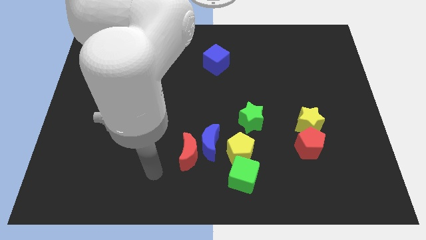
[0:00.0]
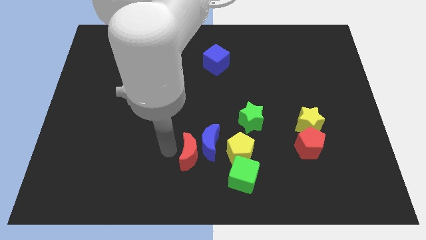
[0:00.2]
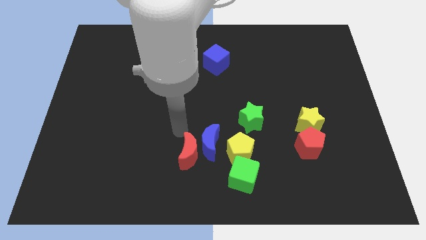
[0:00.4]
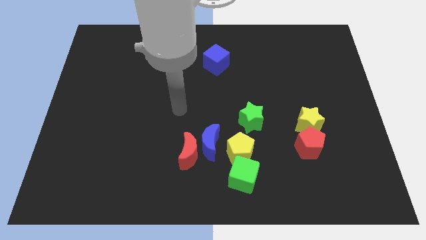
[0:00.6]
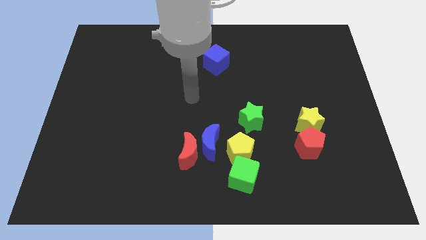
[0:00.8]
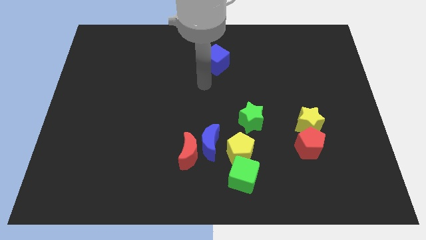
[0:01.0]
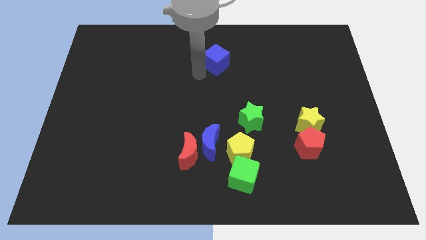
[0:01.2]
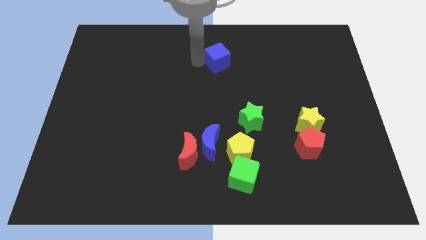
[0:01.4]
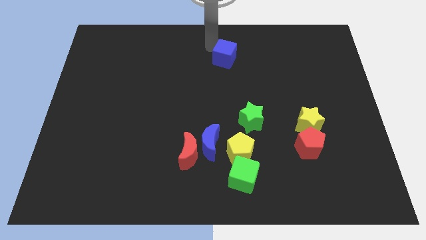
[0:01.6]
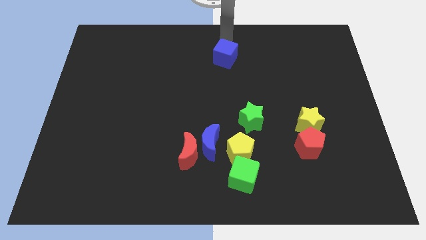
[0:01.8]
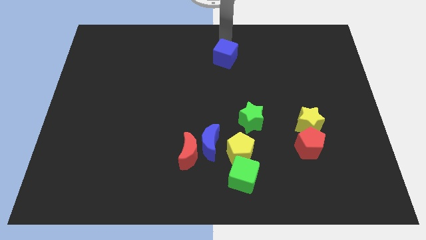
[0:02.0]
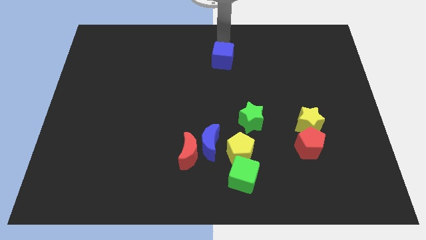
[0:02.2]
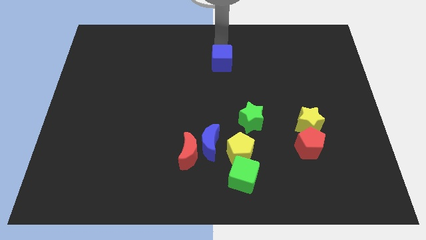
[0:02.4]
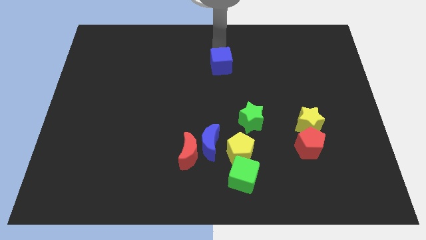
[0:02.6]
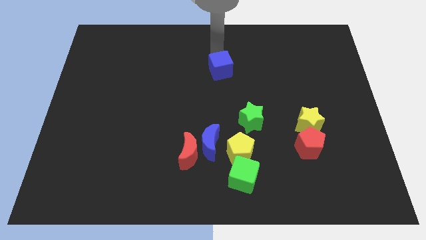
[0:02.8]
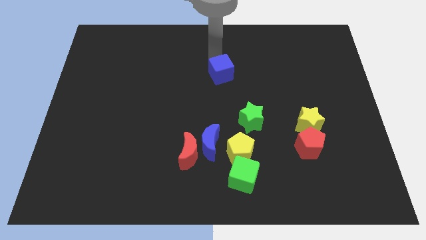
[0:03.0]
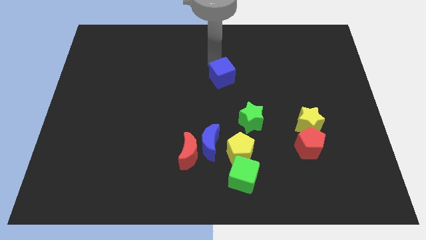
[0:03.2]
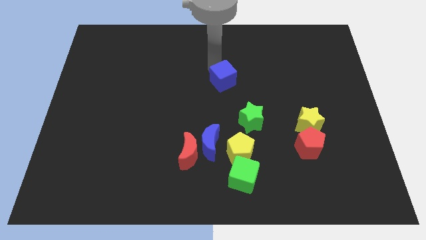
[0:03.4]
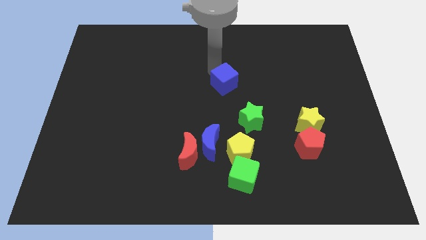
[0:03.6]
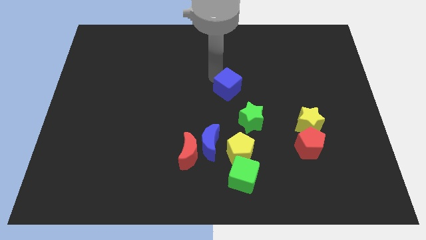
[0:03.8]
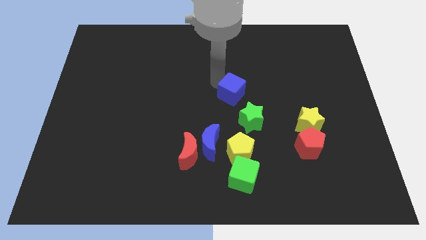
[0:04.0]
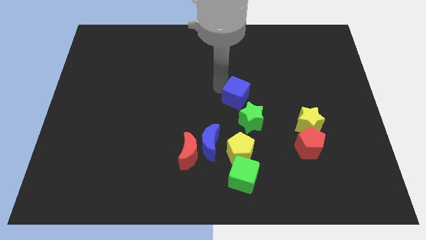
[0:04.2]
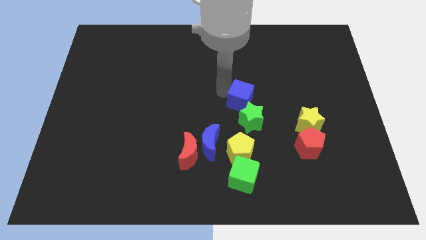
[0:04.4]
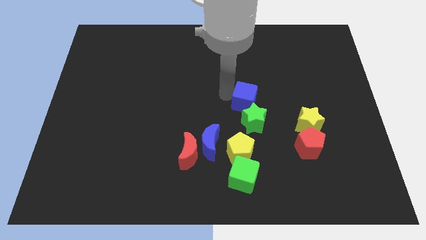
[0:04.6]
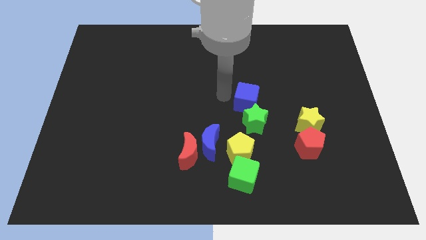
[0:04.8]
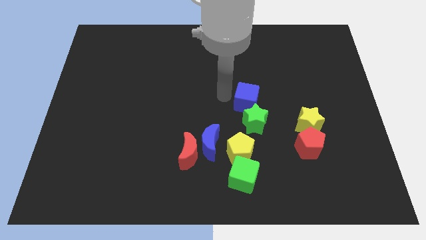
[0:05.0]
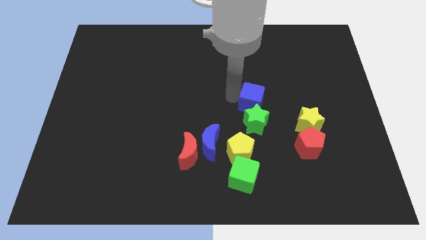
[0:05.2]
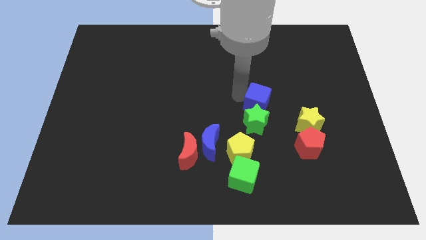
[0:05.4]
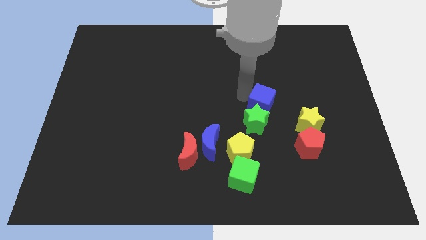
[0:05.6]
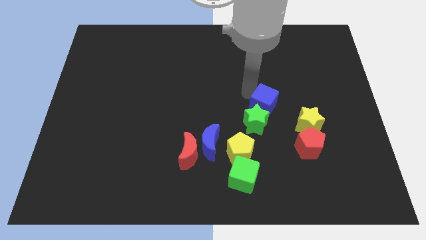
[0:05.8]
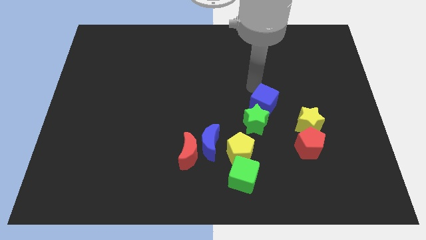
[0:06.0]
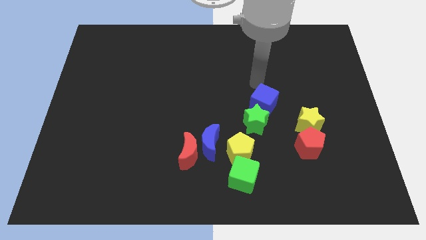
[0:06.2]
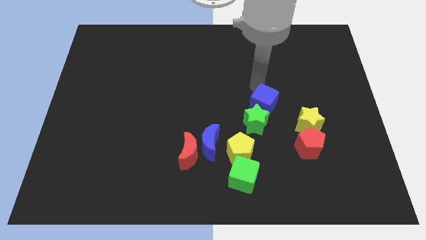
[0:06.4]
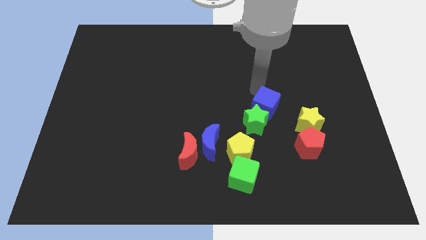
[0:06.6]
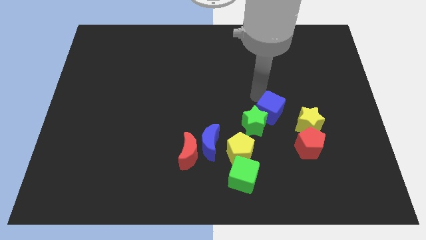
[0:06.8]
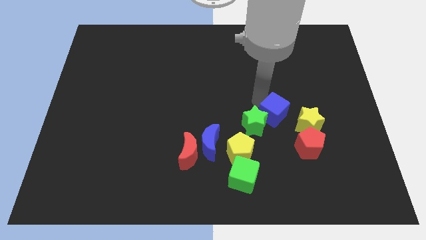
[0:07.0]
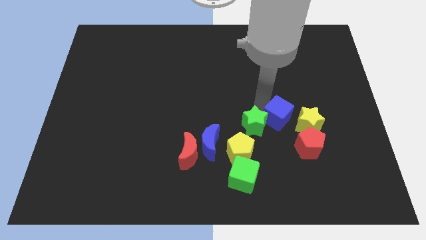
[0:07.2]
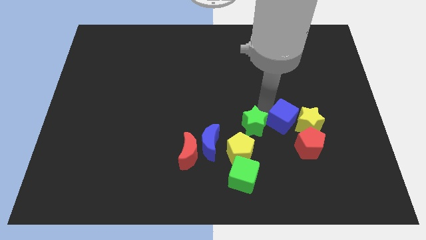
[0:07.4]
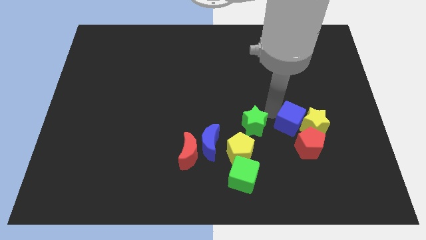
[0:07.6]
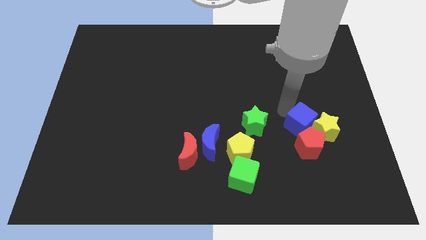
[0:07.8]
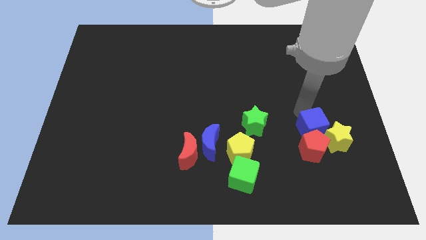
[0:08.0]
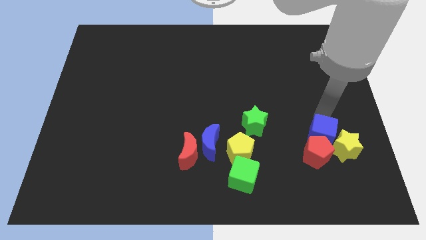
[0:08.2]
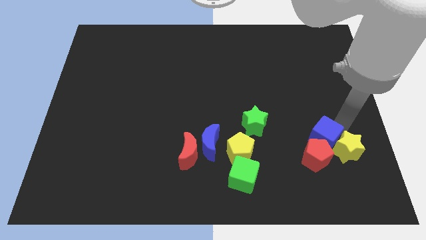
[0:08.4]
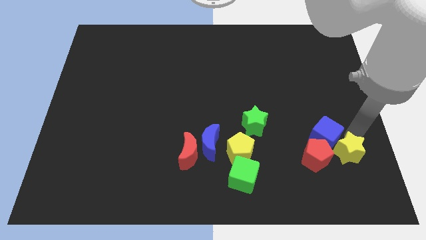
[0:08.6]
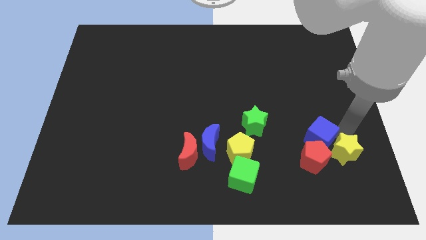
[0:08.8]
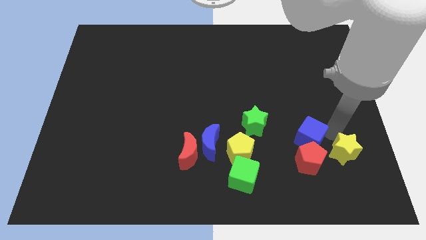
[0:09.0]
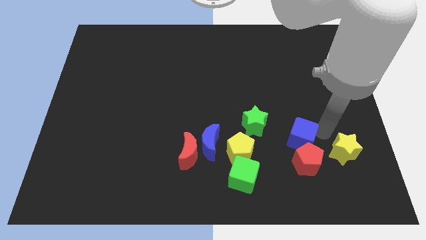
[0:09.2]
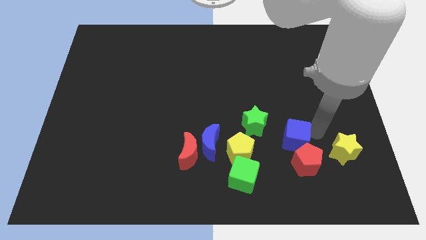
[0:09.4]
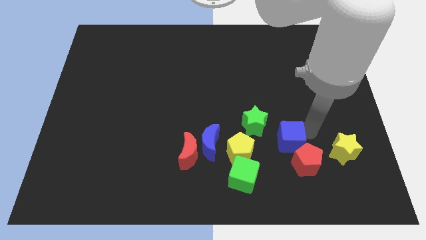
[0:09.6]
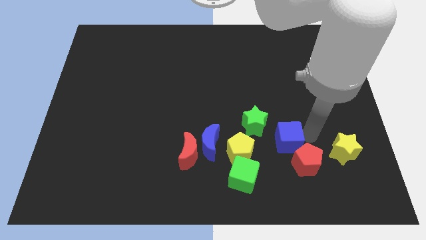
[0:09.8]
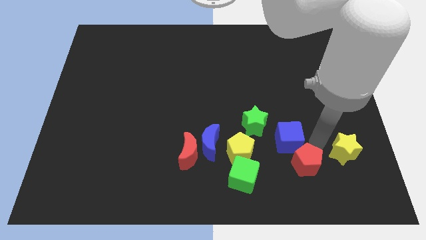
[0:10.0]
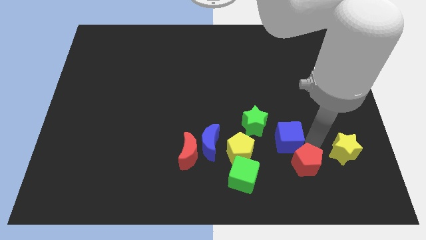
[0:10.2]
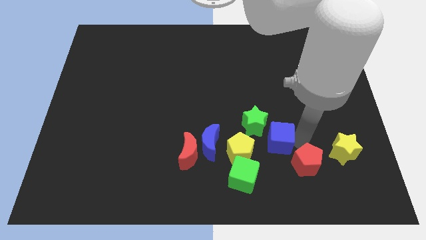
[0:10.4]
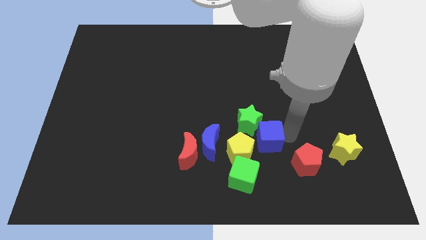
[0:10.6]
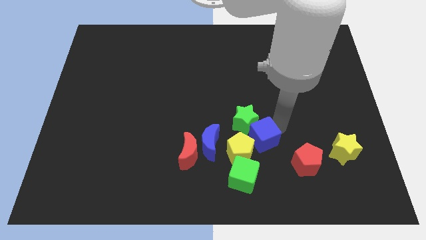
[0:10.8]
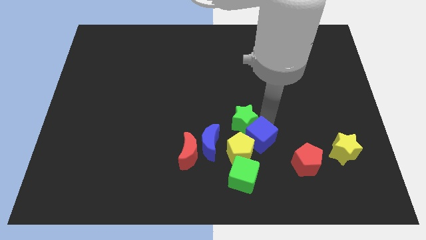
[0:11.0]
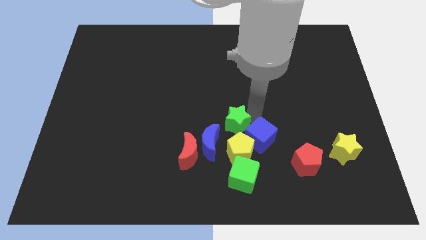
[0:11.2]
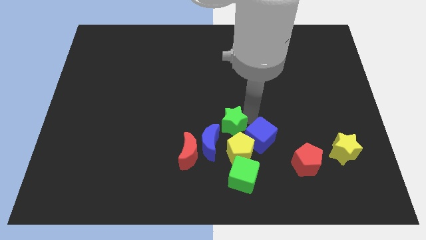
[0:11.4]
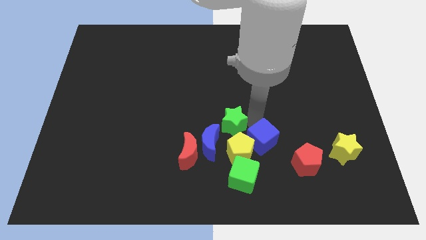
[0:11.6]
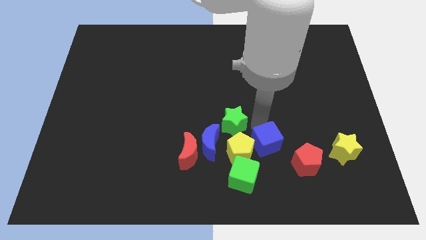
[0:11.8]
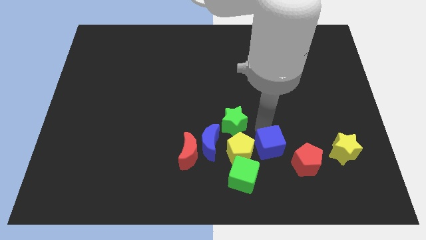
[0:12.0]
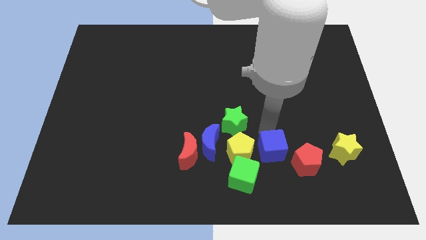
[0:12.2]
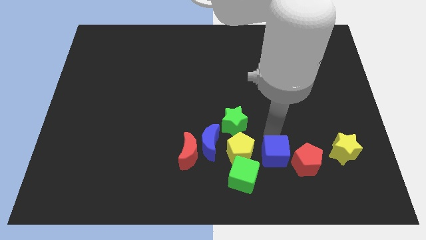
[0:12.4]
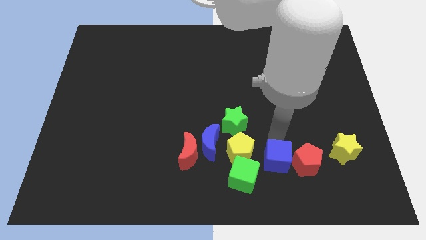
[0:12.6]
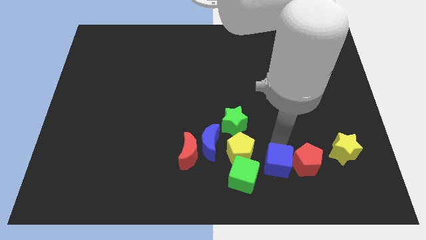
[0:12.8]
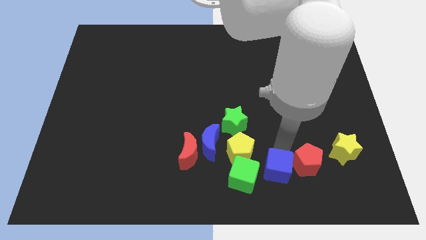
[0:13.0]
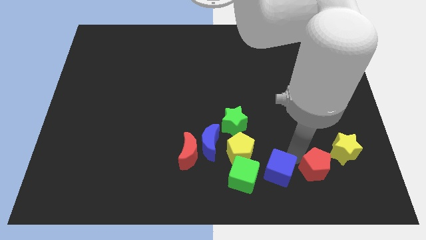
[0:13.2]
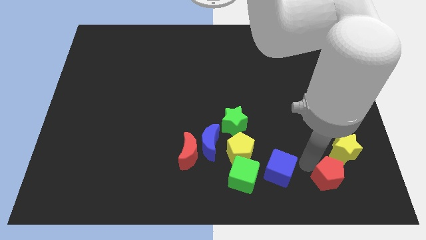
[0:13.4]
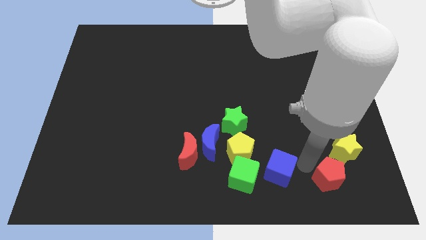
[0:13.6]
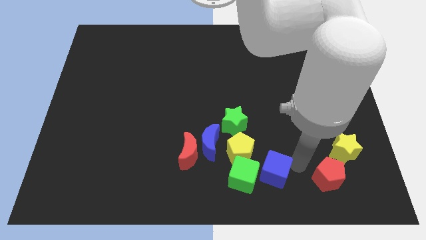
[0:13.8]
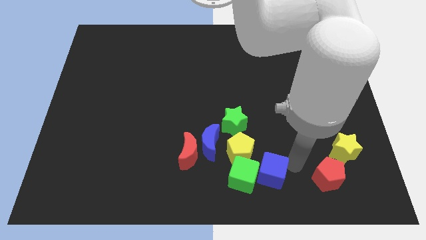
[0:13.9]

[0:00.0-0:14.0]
push the blue cube to the green cube

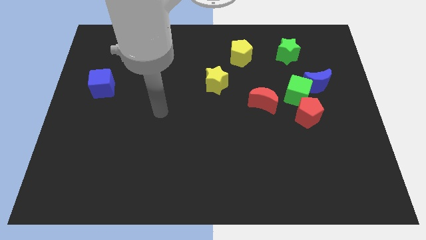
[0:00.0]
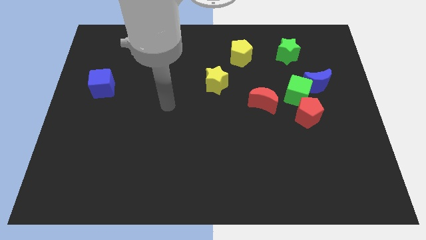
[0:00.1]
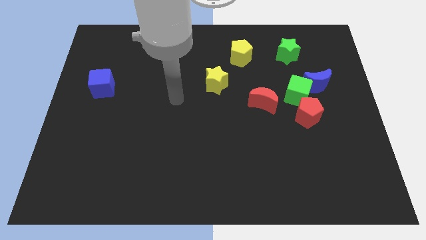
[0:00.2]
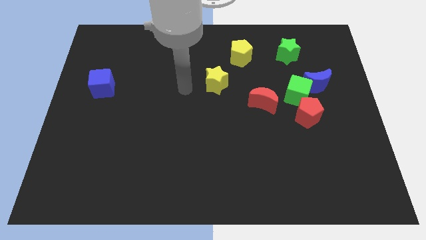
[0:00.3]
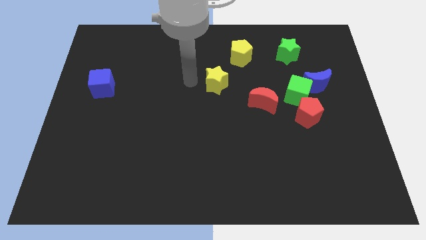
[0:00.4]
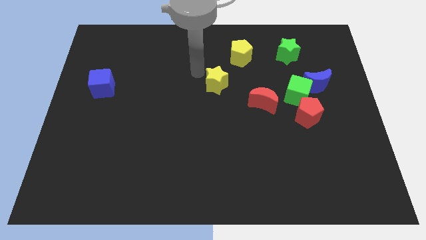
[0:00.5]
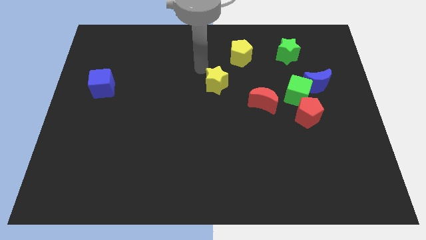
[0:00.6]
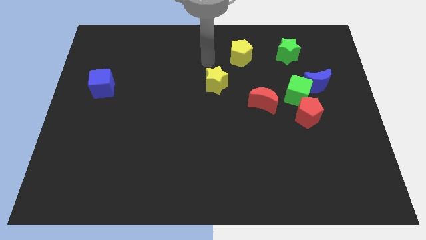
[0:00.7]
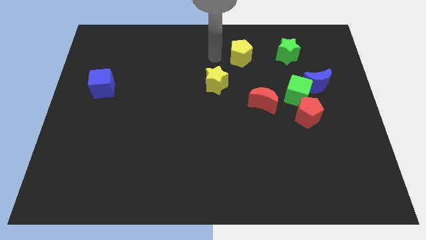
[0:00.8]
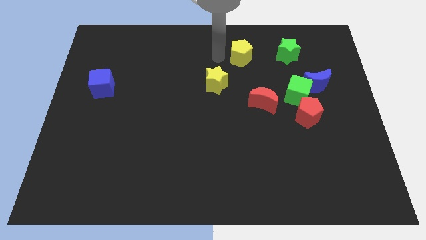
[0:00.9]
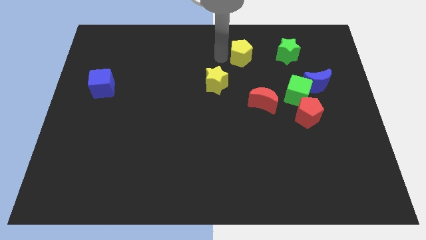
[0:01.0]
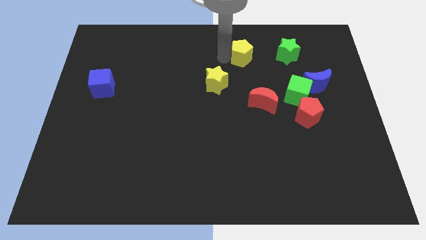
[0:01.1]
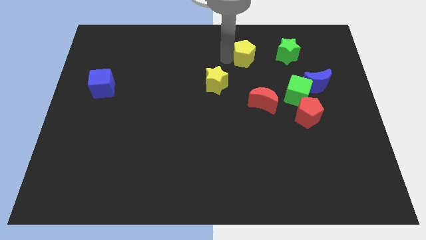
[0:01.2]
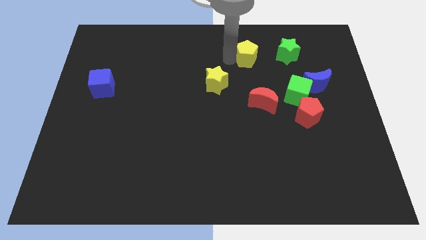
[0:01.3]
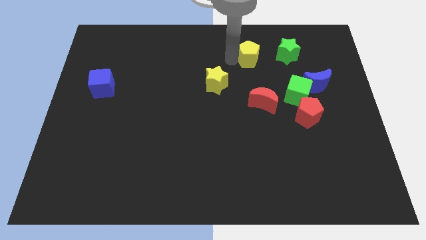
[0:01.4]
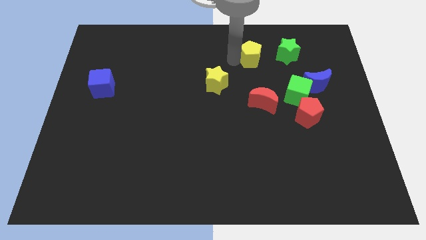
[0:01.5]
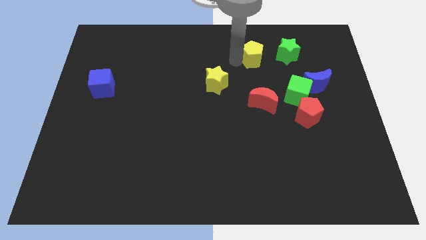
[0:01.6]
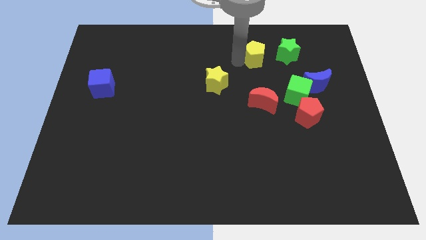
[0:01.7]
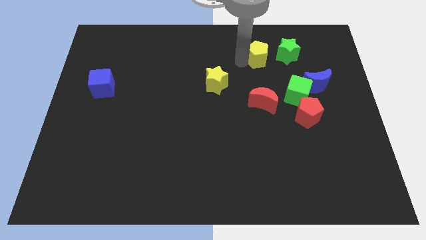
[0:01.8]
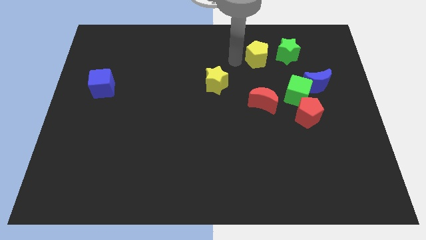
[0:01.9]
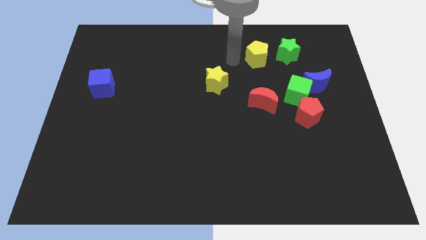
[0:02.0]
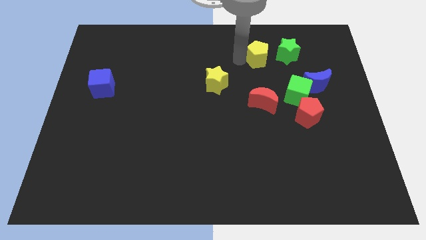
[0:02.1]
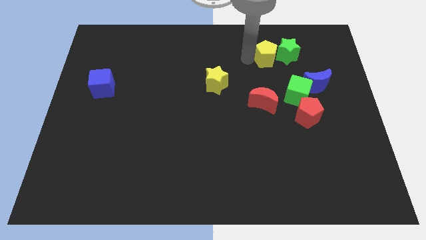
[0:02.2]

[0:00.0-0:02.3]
push the yellow pentagon to the green star
